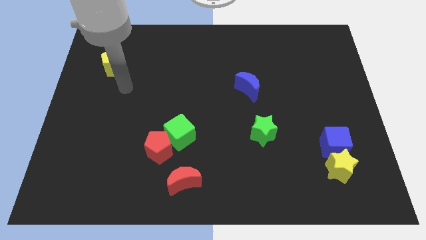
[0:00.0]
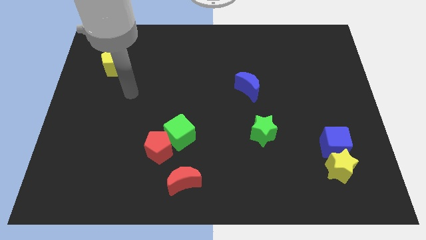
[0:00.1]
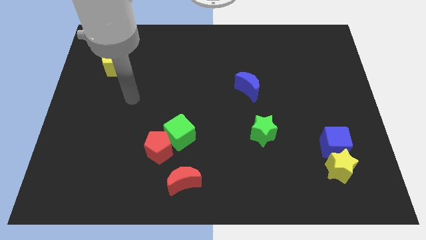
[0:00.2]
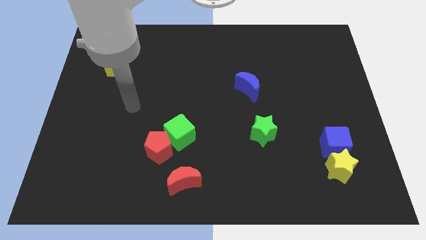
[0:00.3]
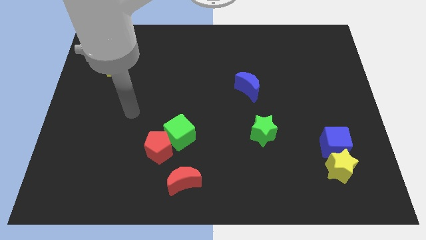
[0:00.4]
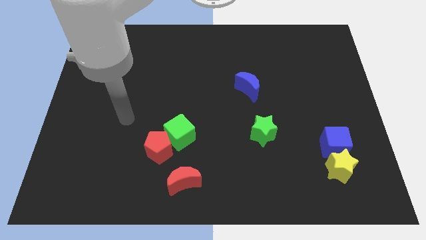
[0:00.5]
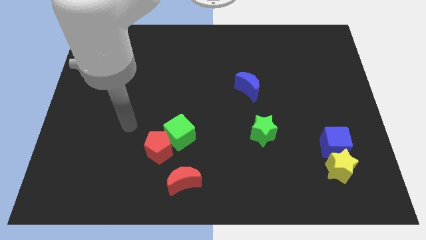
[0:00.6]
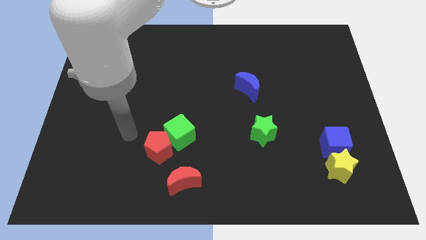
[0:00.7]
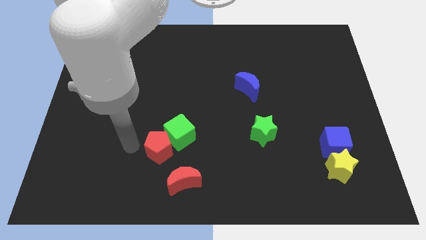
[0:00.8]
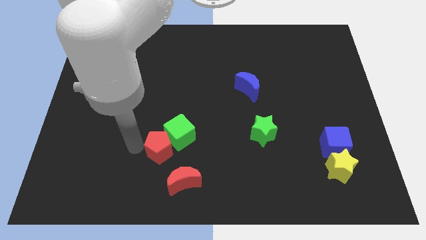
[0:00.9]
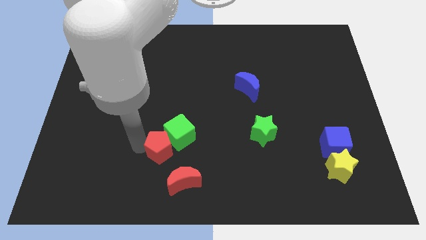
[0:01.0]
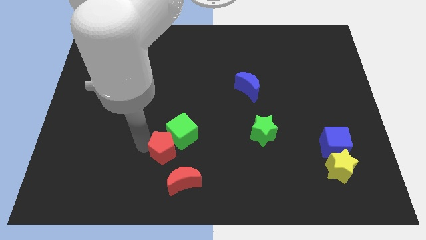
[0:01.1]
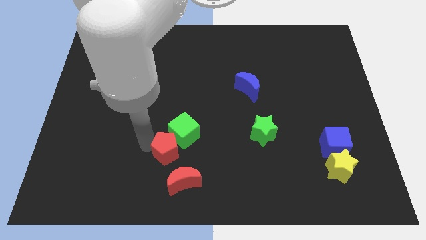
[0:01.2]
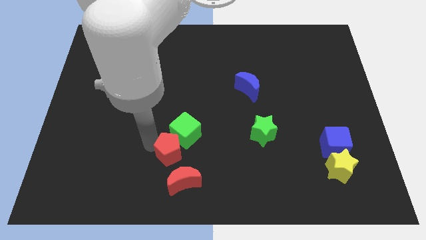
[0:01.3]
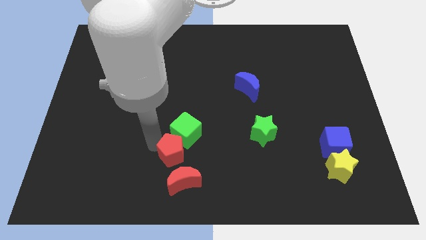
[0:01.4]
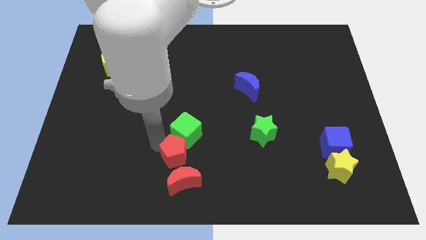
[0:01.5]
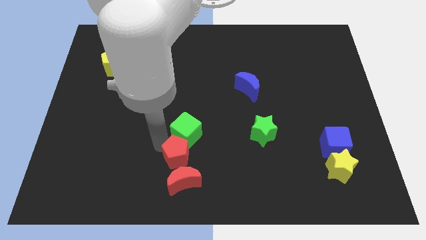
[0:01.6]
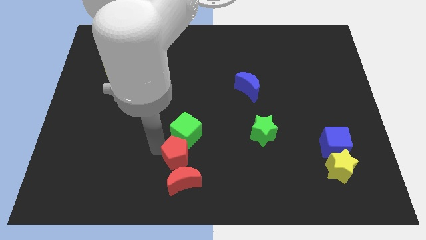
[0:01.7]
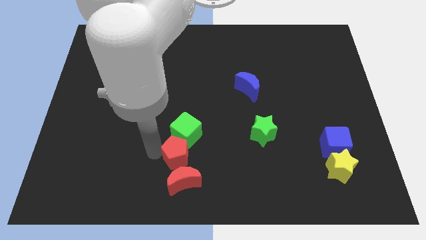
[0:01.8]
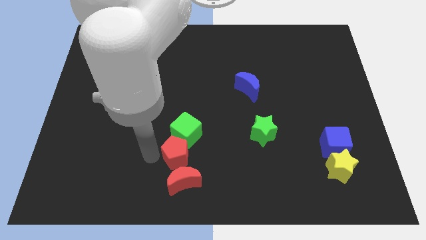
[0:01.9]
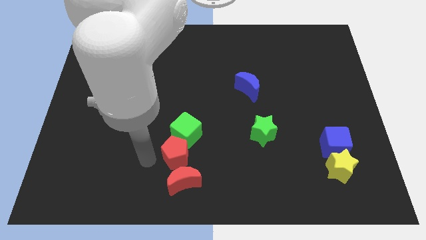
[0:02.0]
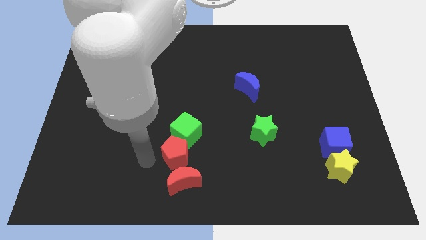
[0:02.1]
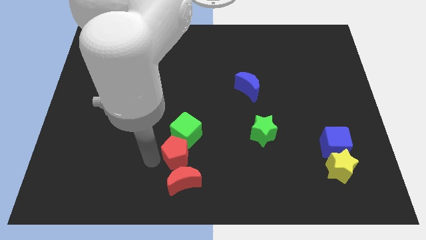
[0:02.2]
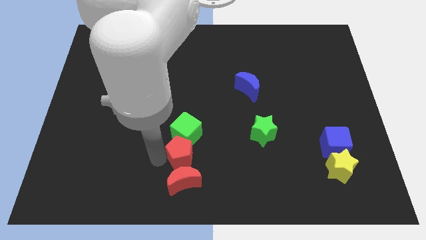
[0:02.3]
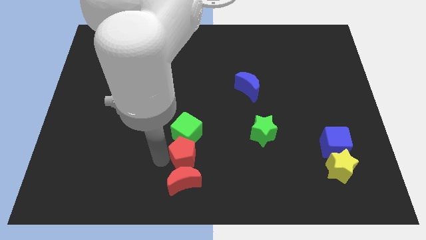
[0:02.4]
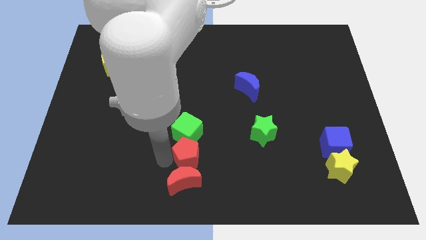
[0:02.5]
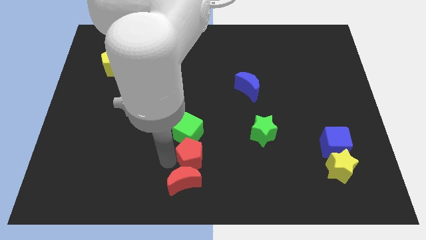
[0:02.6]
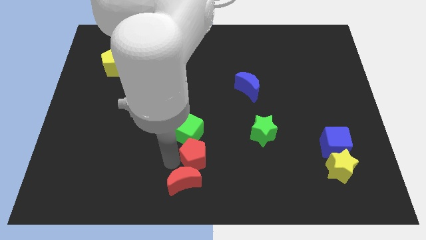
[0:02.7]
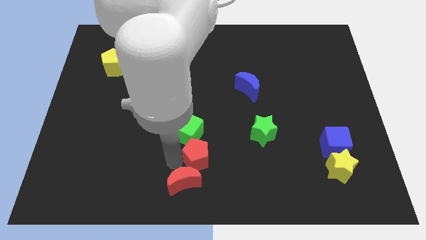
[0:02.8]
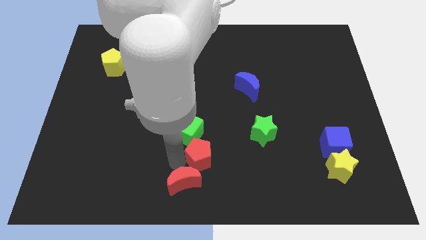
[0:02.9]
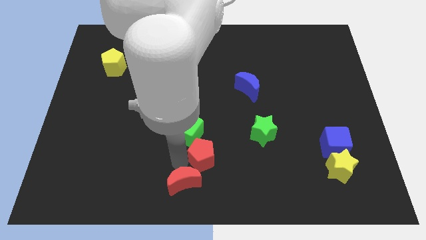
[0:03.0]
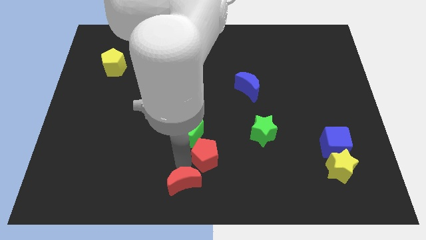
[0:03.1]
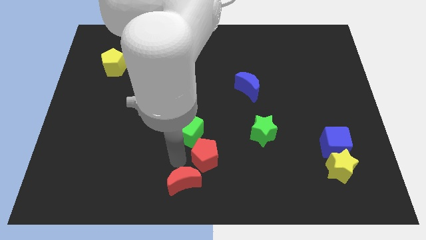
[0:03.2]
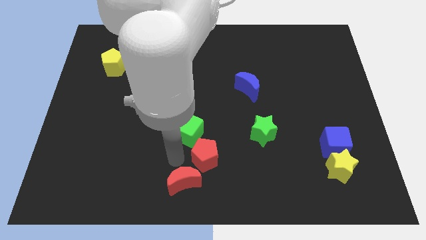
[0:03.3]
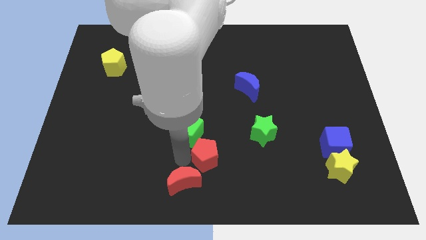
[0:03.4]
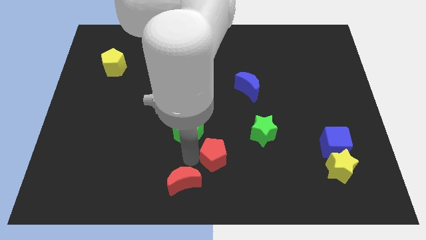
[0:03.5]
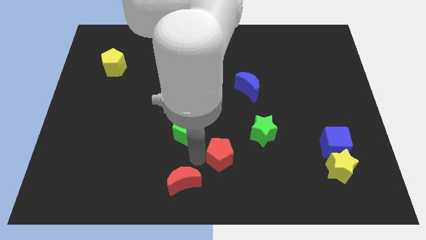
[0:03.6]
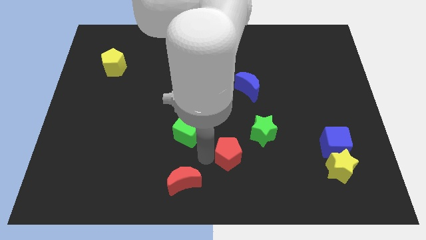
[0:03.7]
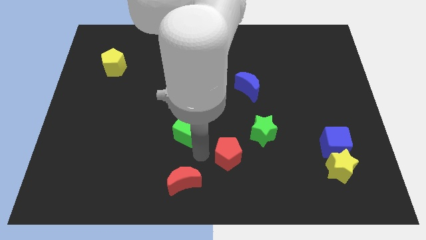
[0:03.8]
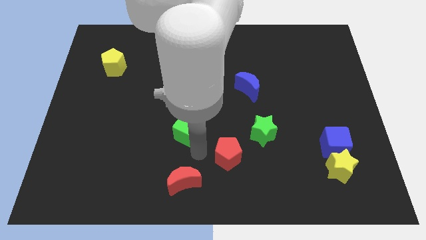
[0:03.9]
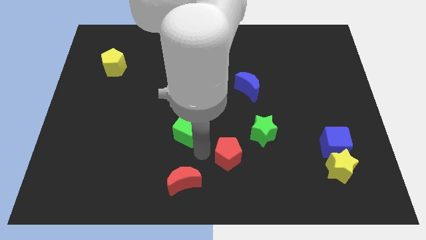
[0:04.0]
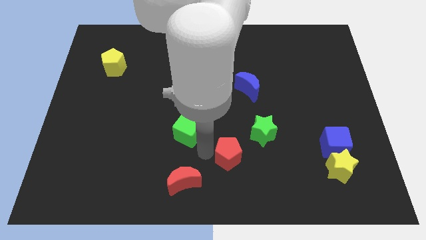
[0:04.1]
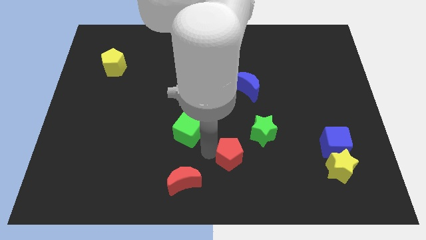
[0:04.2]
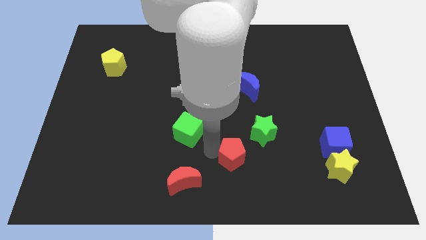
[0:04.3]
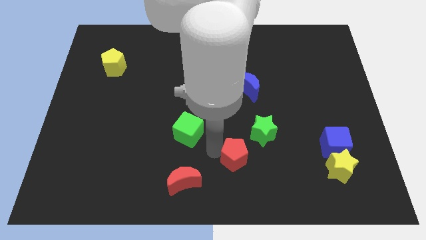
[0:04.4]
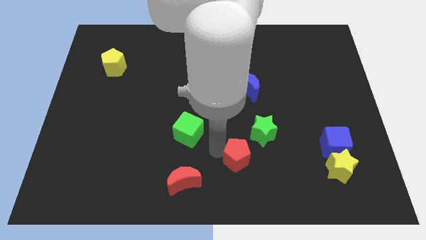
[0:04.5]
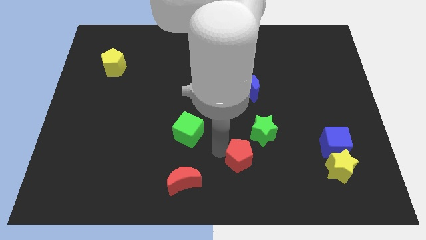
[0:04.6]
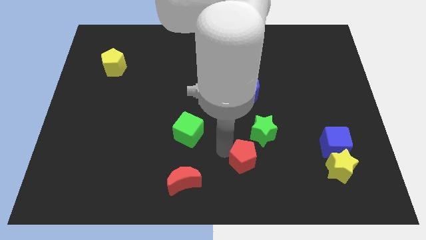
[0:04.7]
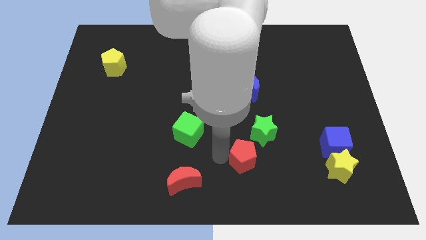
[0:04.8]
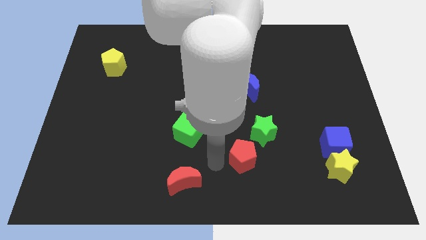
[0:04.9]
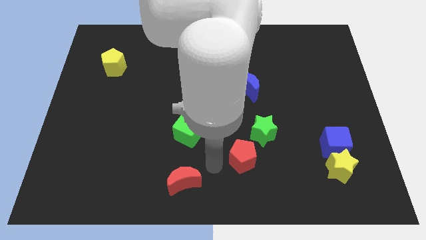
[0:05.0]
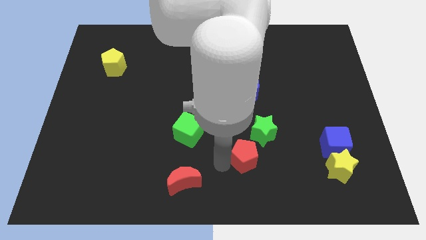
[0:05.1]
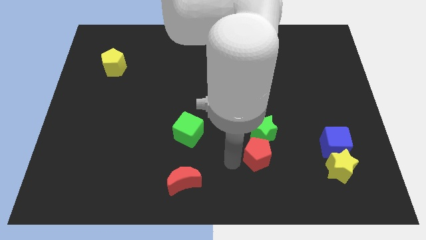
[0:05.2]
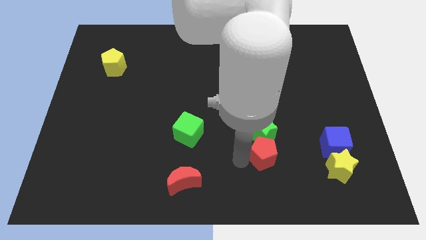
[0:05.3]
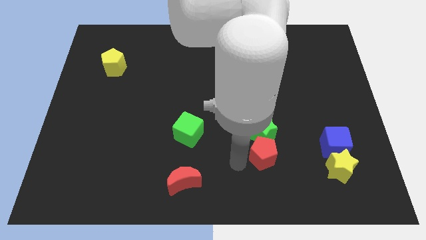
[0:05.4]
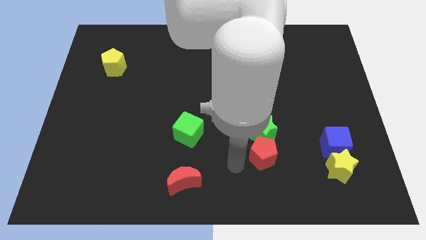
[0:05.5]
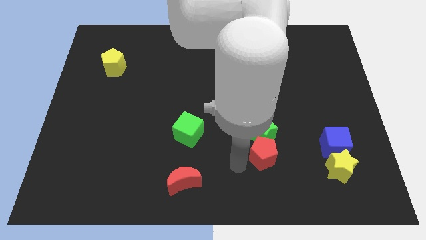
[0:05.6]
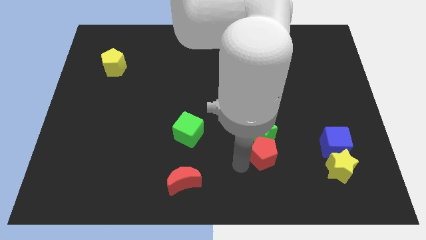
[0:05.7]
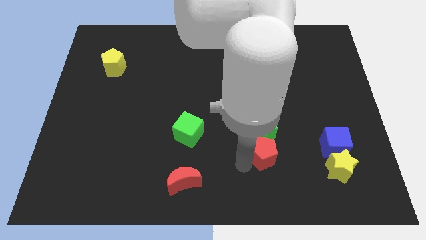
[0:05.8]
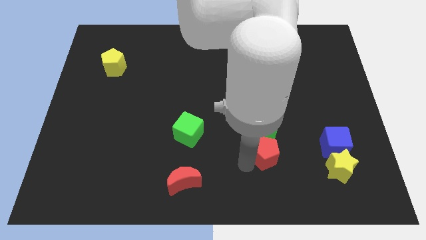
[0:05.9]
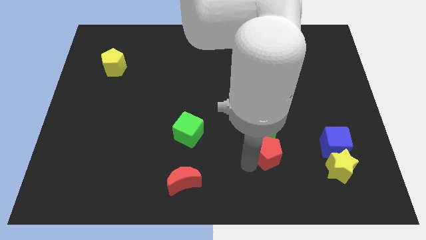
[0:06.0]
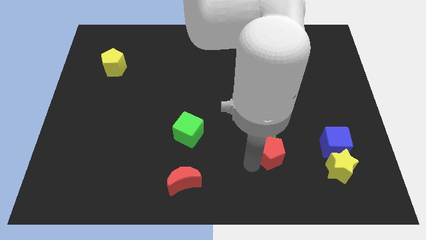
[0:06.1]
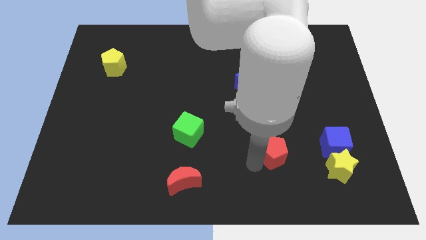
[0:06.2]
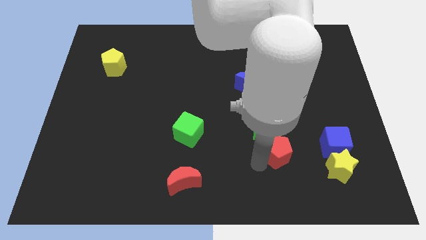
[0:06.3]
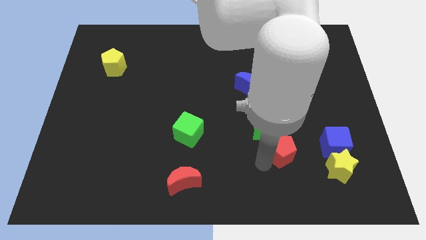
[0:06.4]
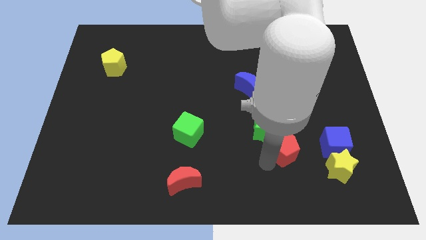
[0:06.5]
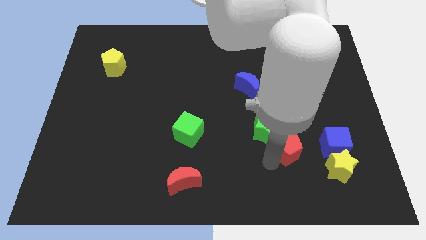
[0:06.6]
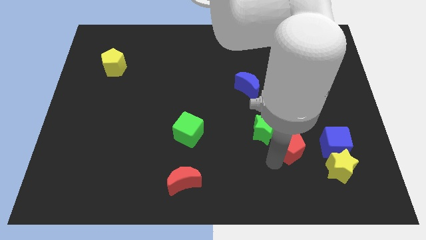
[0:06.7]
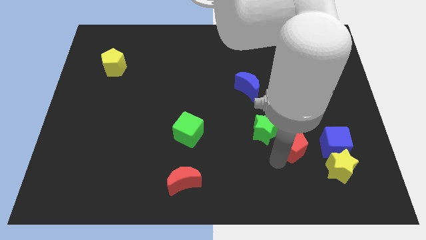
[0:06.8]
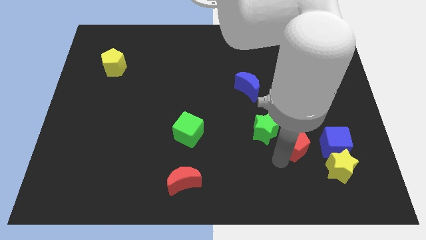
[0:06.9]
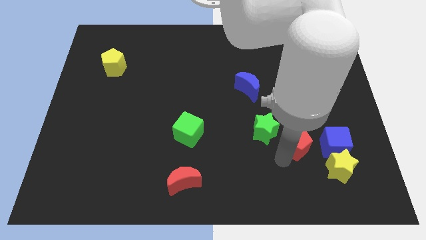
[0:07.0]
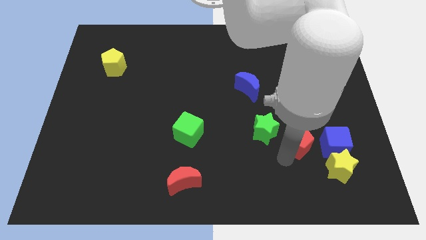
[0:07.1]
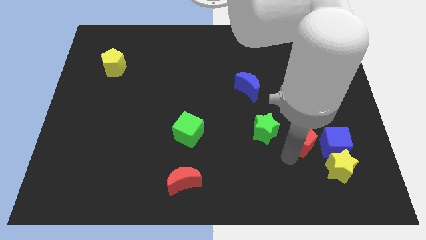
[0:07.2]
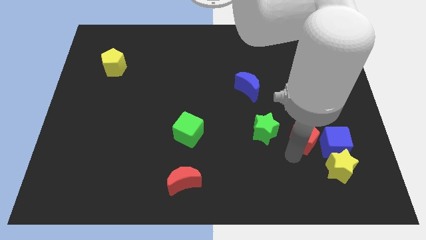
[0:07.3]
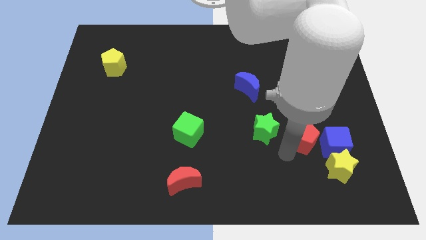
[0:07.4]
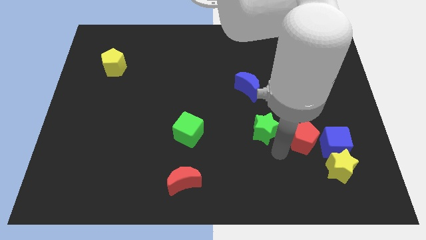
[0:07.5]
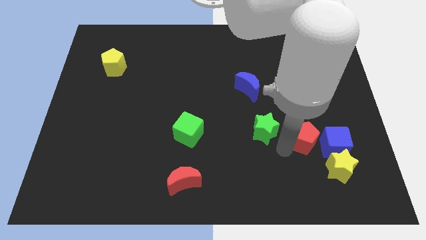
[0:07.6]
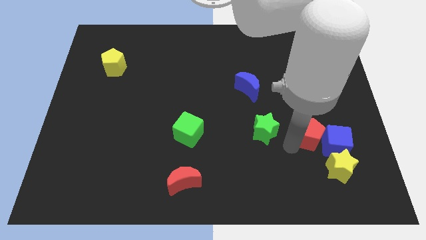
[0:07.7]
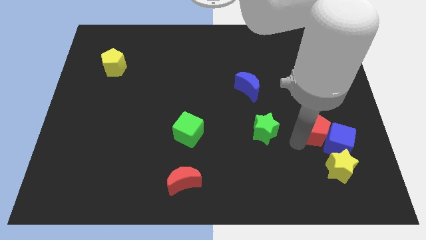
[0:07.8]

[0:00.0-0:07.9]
slide the red pentagon to the top of the yellow star
